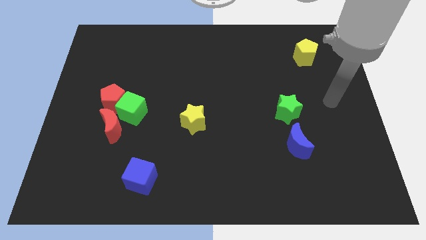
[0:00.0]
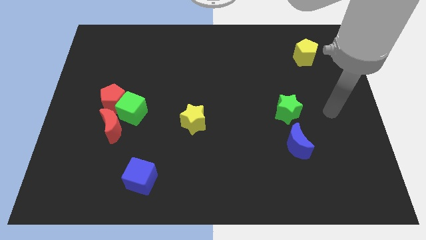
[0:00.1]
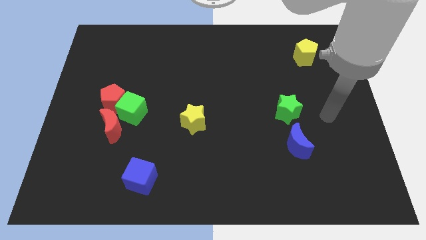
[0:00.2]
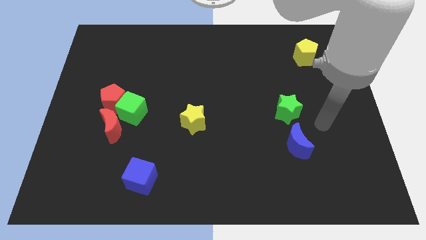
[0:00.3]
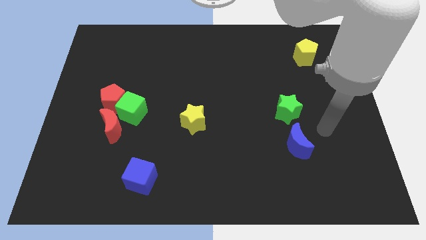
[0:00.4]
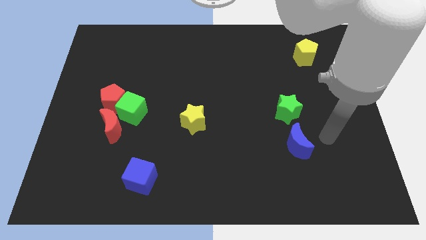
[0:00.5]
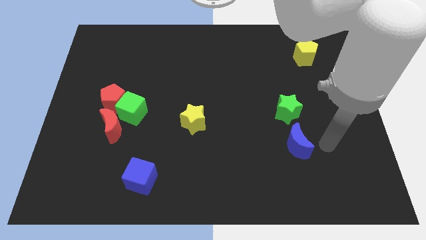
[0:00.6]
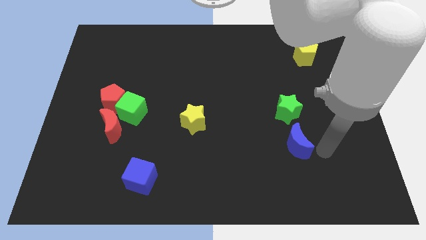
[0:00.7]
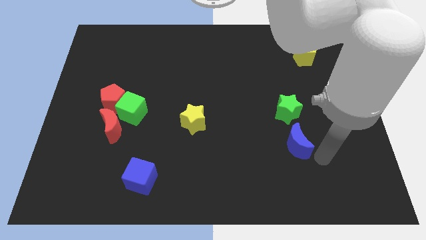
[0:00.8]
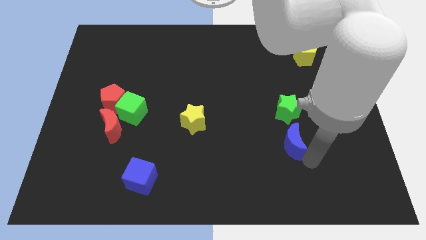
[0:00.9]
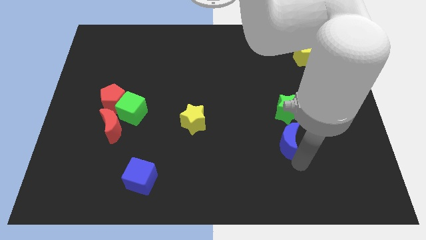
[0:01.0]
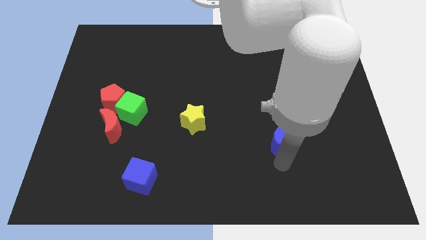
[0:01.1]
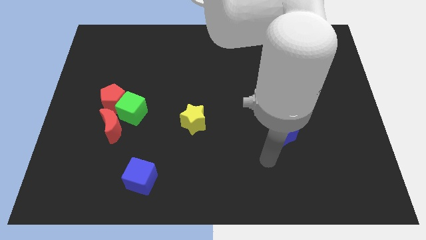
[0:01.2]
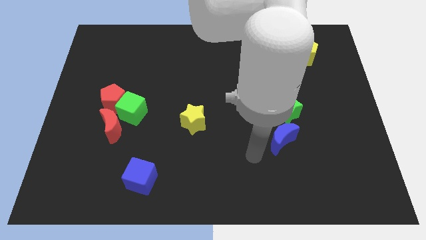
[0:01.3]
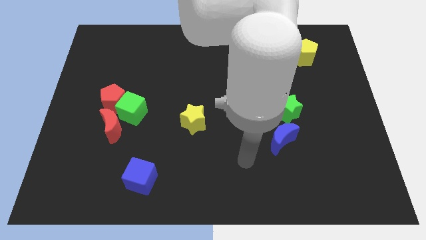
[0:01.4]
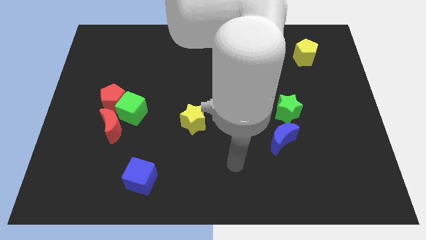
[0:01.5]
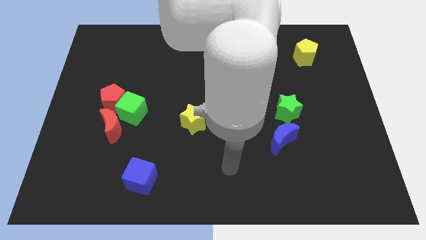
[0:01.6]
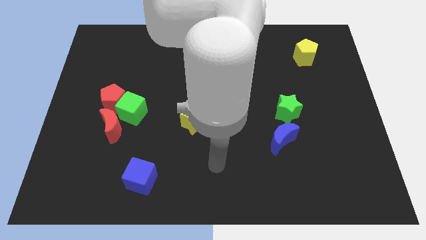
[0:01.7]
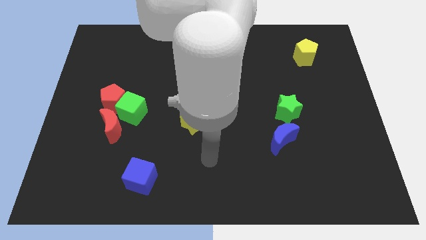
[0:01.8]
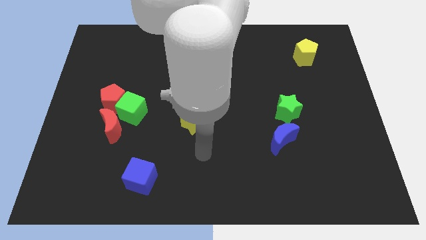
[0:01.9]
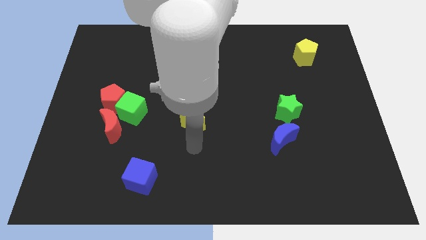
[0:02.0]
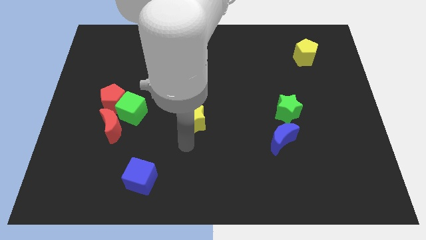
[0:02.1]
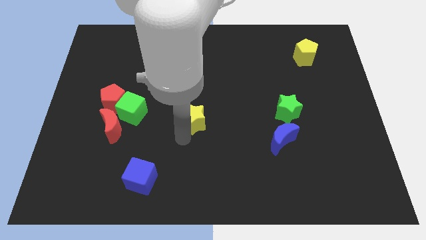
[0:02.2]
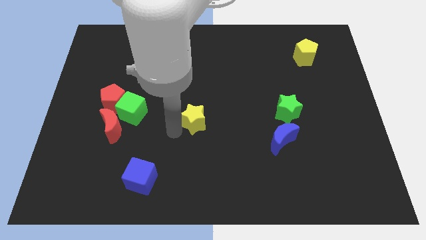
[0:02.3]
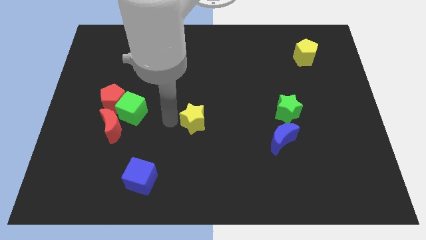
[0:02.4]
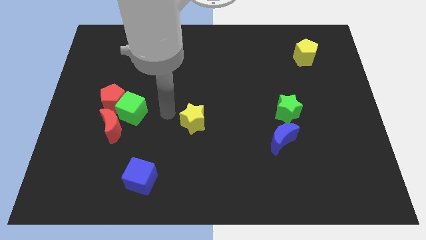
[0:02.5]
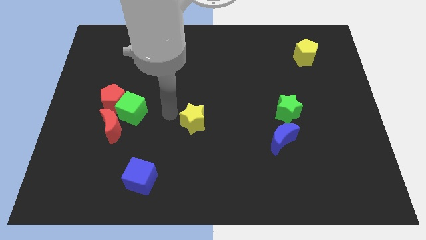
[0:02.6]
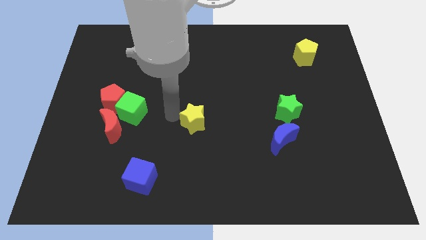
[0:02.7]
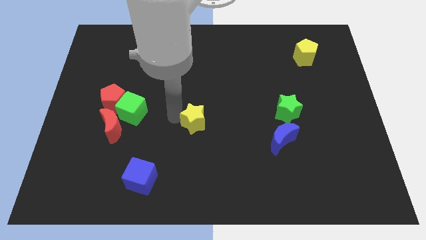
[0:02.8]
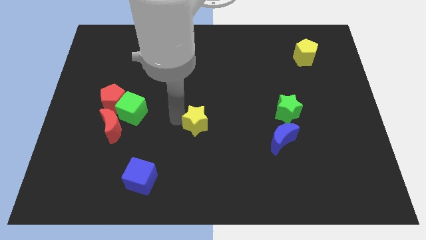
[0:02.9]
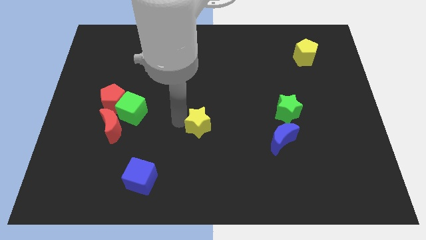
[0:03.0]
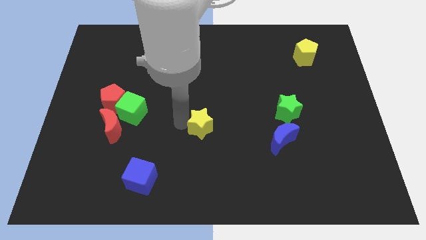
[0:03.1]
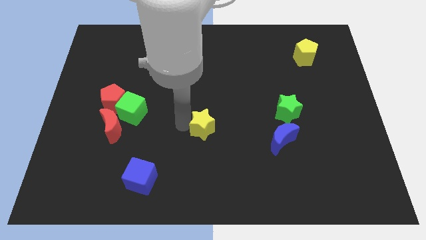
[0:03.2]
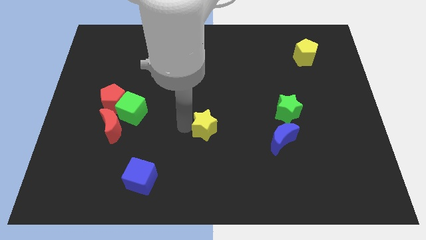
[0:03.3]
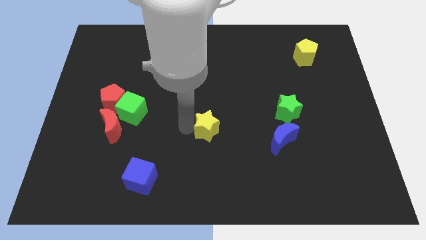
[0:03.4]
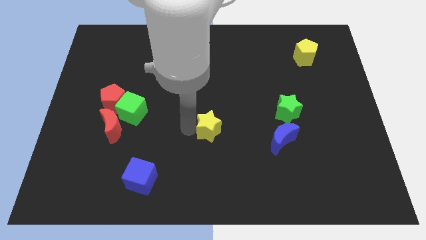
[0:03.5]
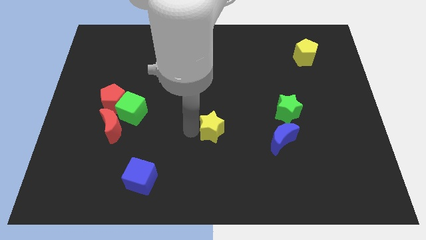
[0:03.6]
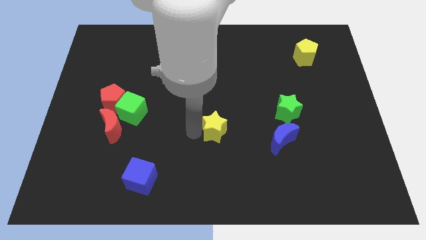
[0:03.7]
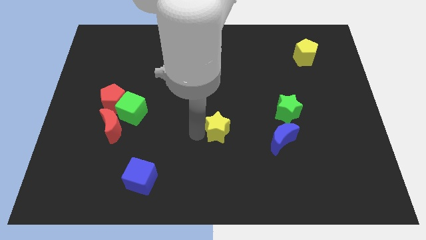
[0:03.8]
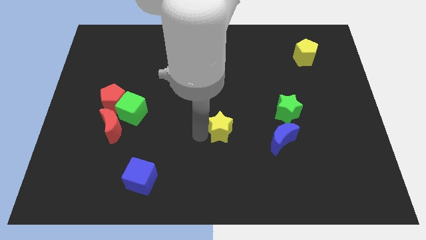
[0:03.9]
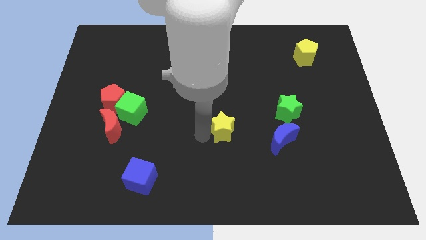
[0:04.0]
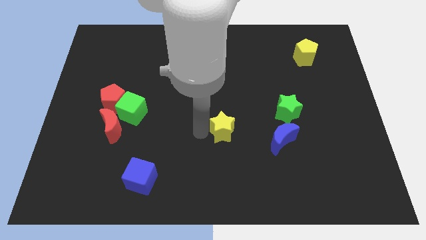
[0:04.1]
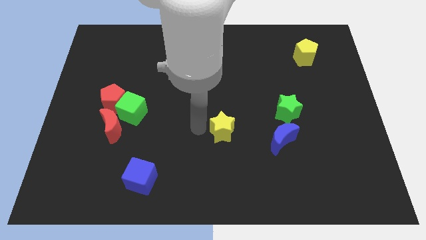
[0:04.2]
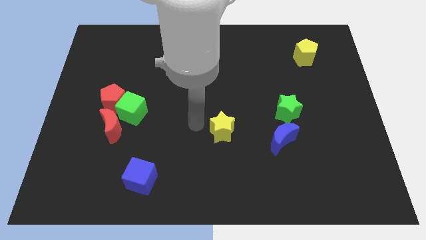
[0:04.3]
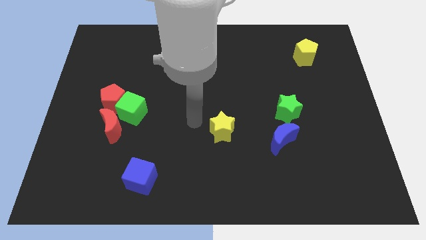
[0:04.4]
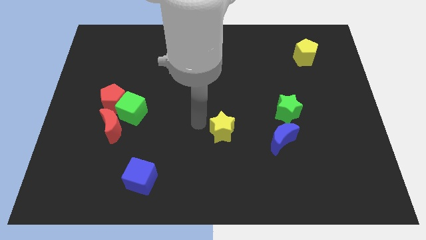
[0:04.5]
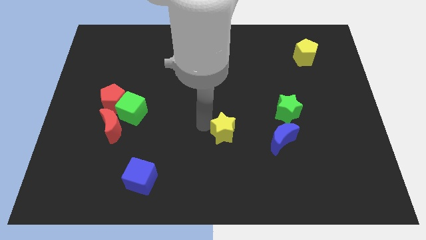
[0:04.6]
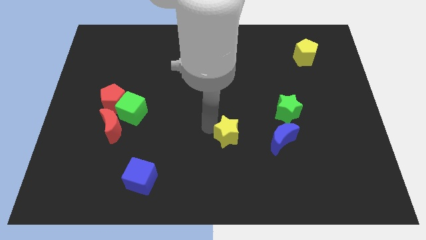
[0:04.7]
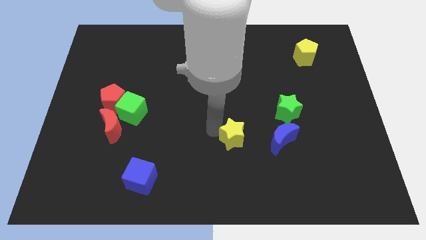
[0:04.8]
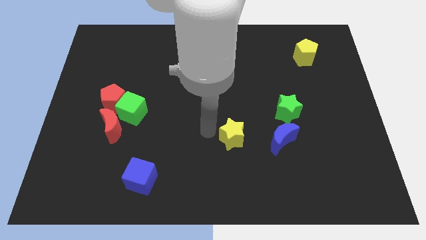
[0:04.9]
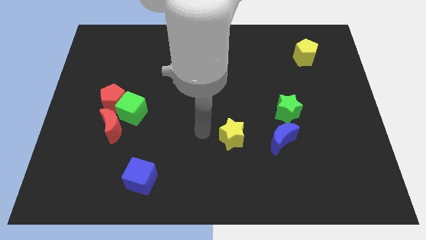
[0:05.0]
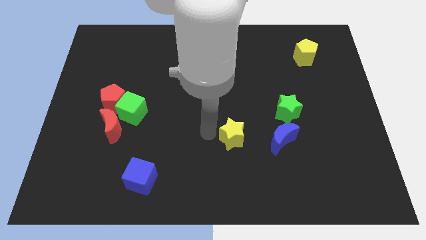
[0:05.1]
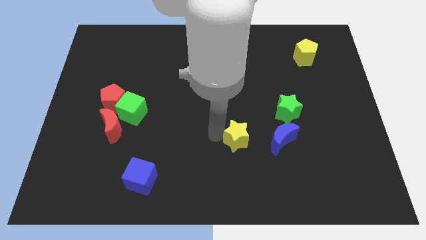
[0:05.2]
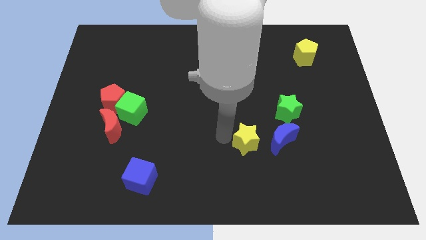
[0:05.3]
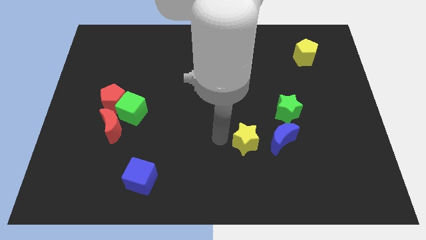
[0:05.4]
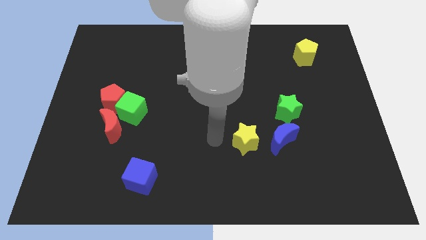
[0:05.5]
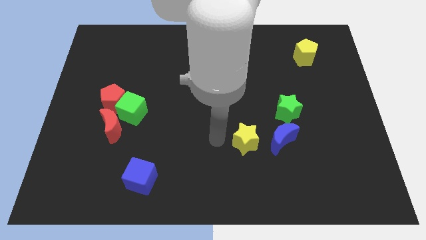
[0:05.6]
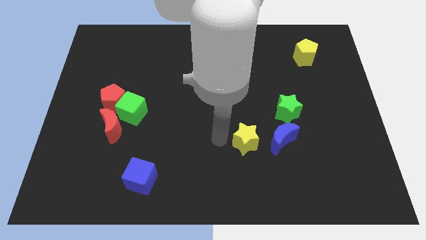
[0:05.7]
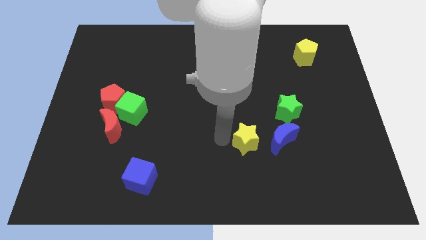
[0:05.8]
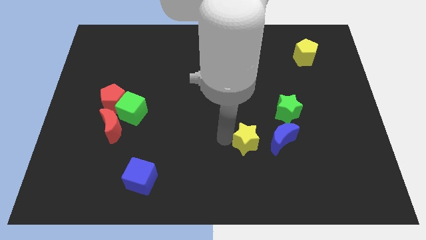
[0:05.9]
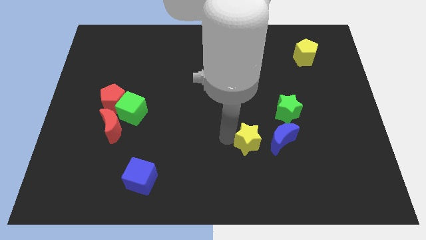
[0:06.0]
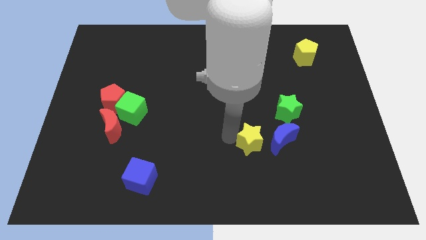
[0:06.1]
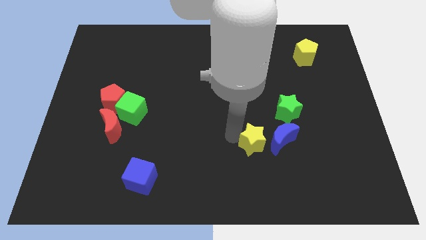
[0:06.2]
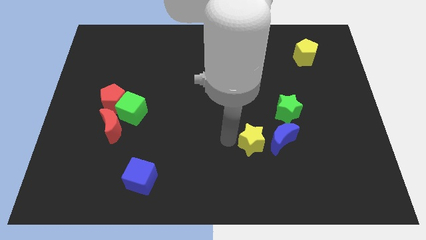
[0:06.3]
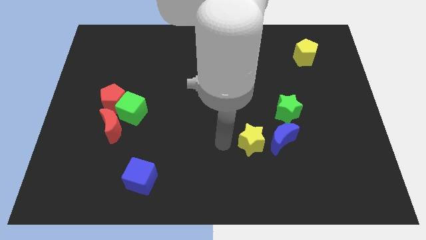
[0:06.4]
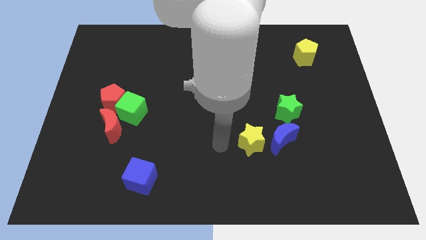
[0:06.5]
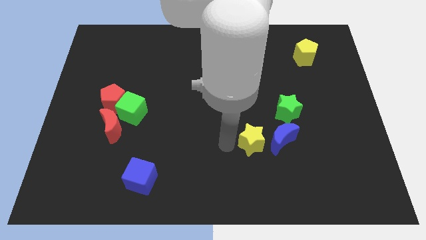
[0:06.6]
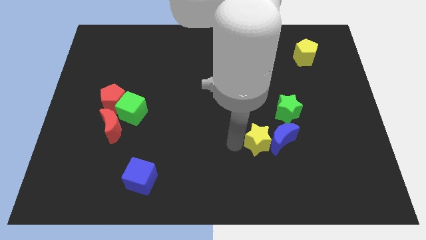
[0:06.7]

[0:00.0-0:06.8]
slide the yellow star close to the blue moon

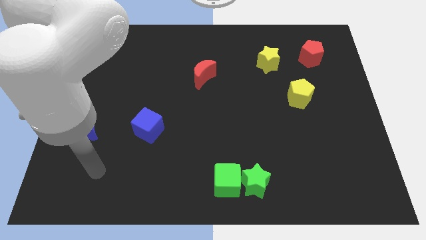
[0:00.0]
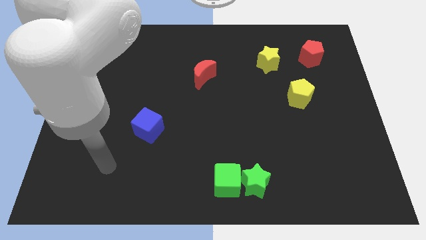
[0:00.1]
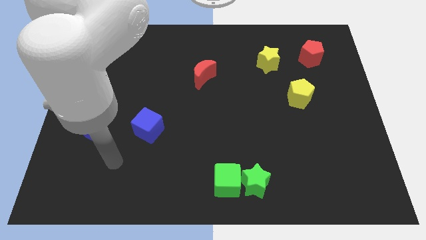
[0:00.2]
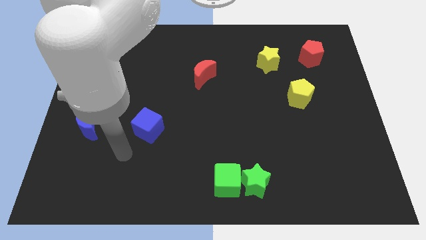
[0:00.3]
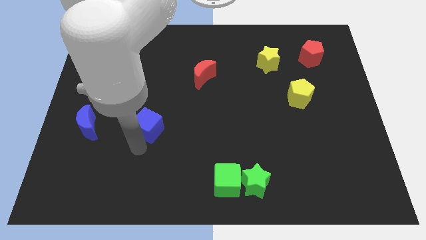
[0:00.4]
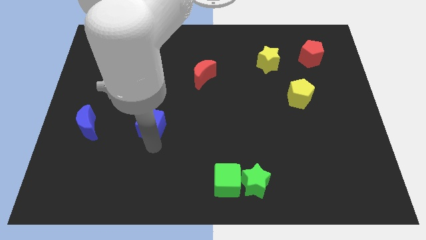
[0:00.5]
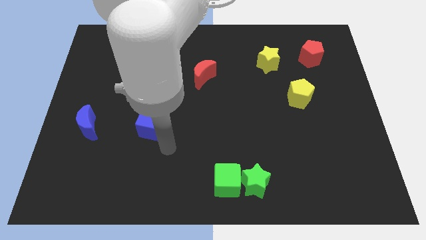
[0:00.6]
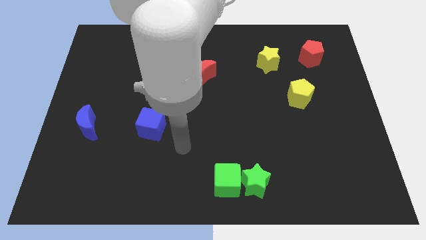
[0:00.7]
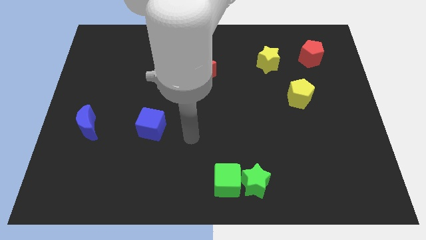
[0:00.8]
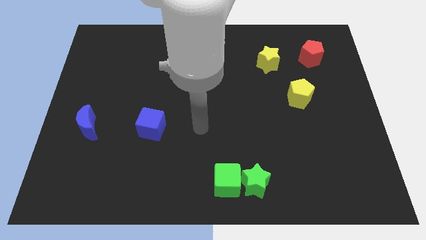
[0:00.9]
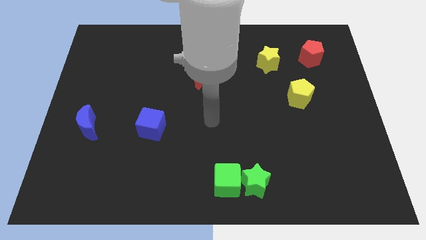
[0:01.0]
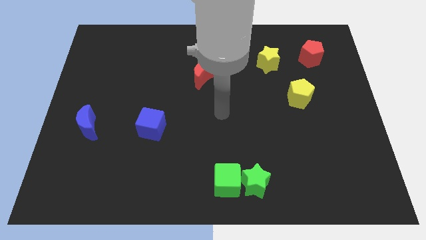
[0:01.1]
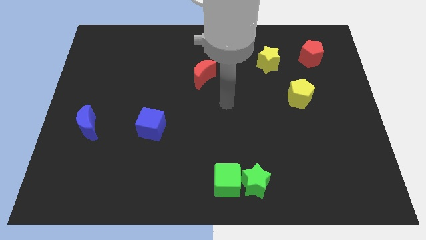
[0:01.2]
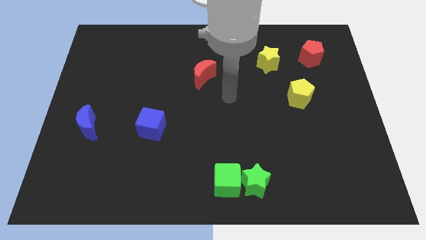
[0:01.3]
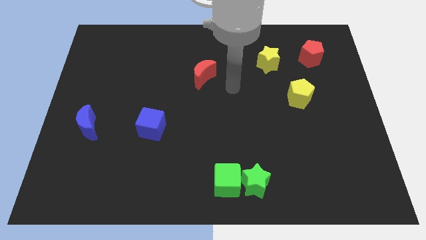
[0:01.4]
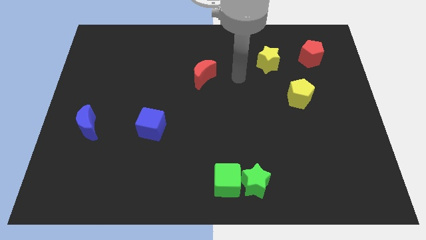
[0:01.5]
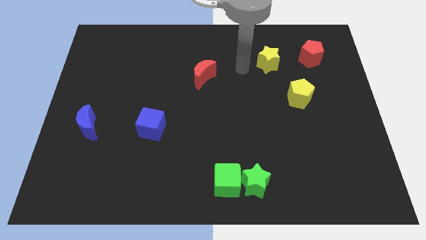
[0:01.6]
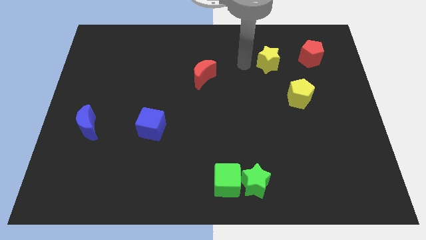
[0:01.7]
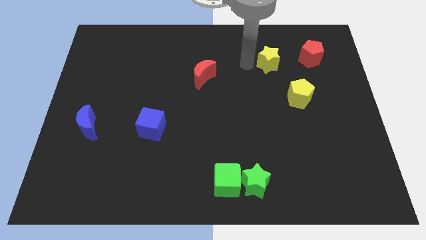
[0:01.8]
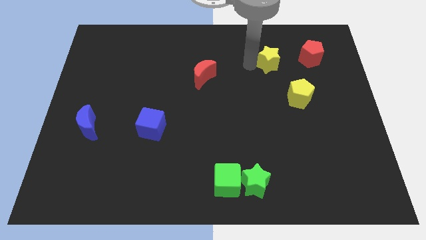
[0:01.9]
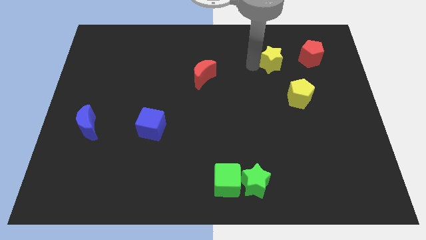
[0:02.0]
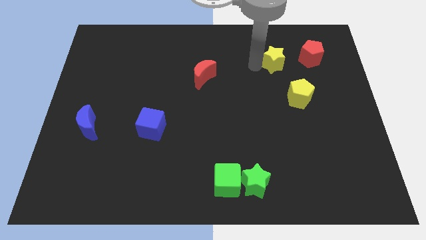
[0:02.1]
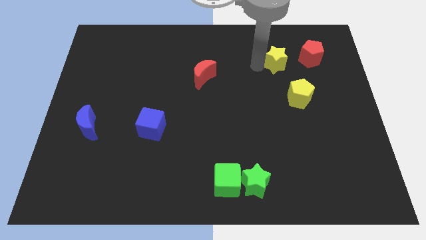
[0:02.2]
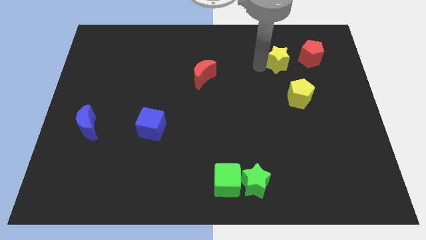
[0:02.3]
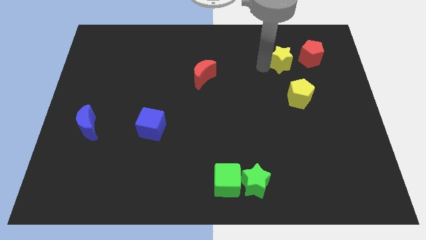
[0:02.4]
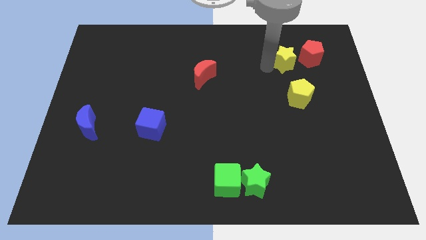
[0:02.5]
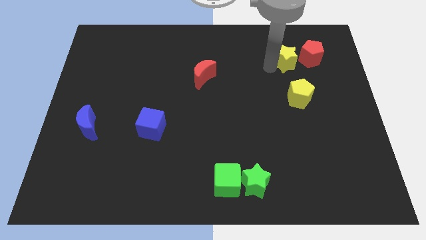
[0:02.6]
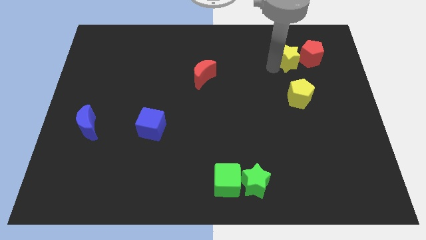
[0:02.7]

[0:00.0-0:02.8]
push the yellow star to the red pentagon
